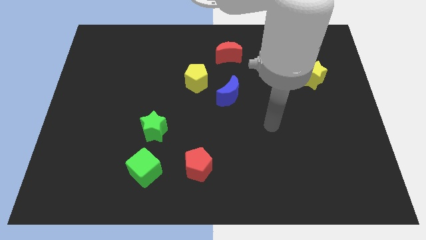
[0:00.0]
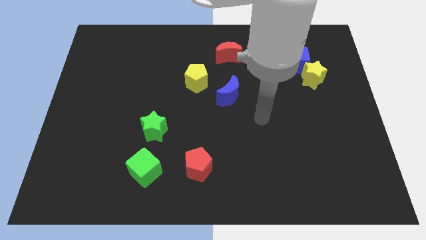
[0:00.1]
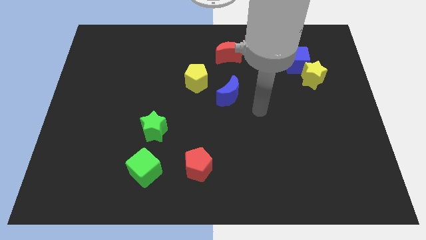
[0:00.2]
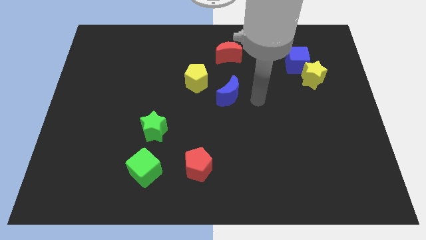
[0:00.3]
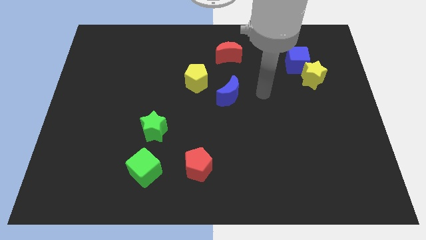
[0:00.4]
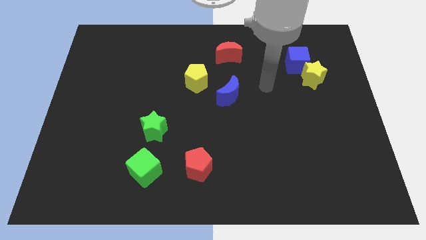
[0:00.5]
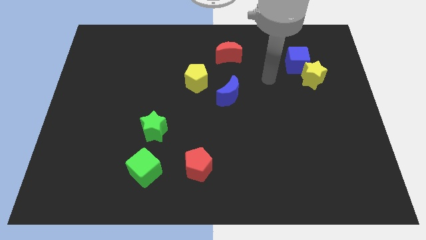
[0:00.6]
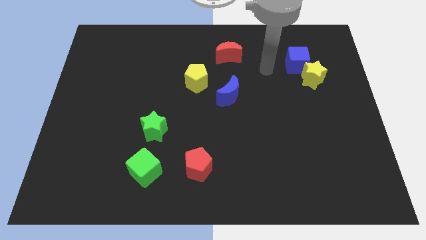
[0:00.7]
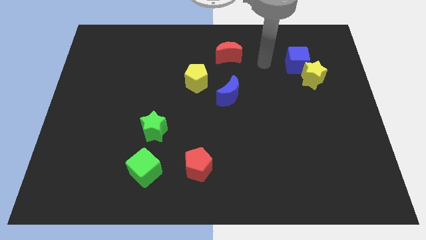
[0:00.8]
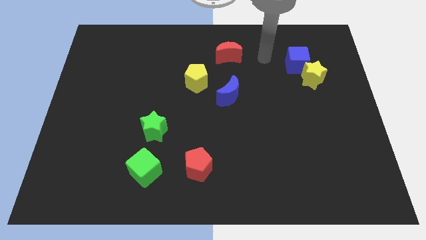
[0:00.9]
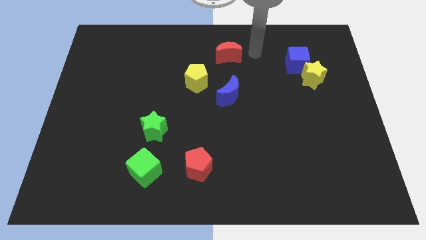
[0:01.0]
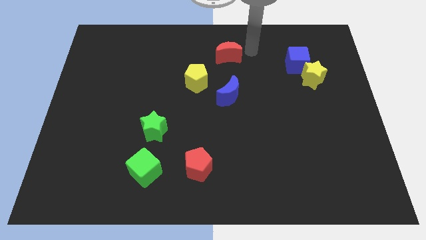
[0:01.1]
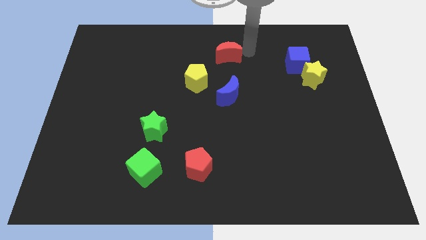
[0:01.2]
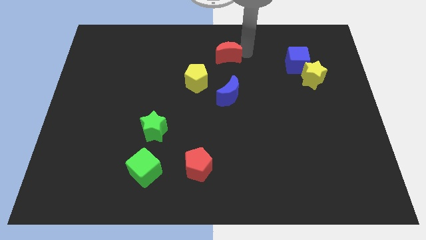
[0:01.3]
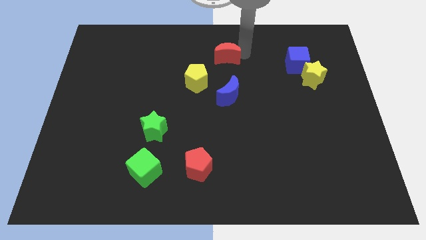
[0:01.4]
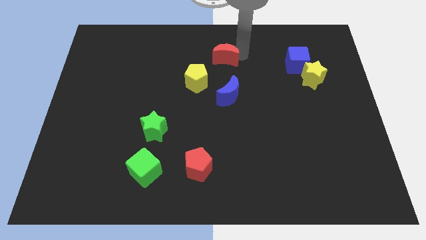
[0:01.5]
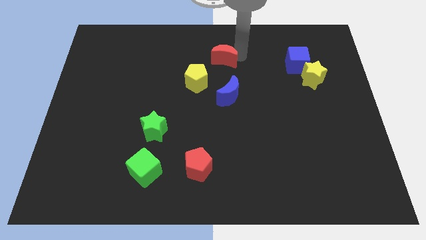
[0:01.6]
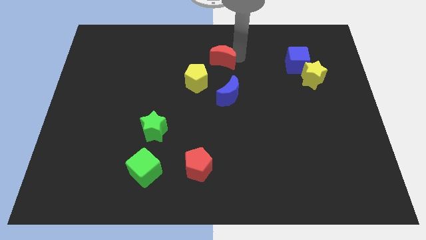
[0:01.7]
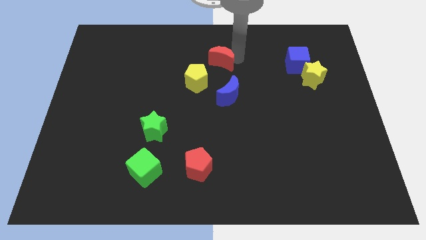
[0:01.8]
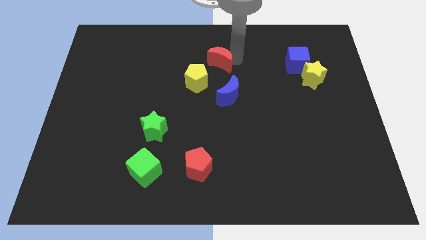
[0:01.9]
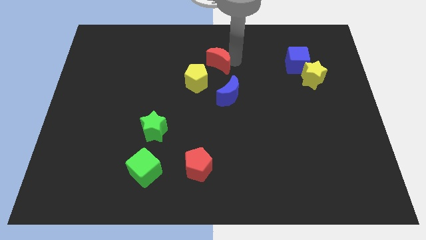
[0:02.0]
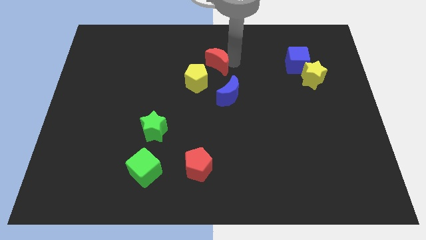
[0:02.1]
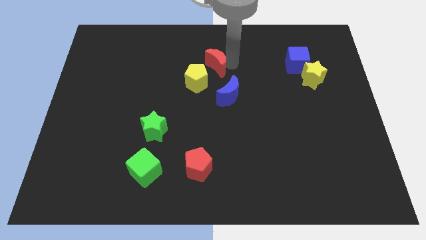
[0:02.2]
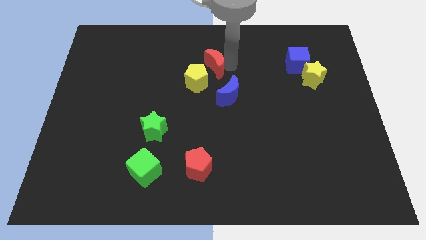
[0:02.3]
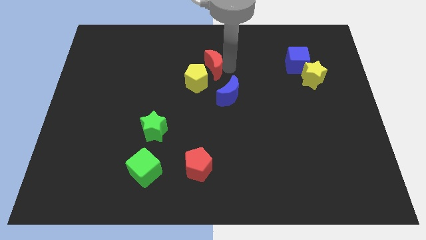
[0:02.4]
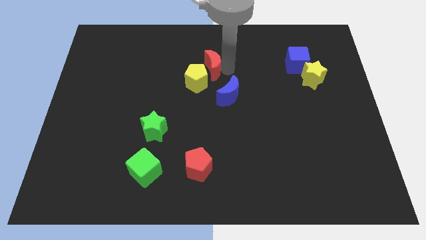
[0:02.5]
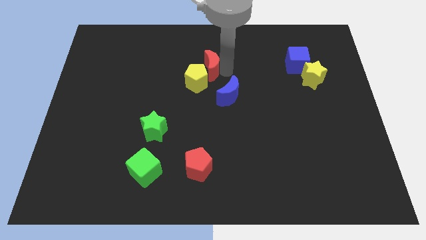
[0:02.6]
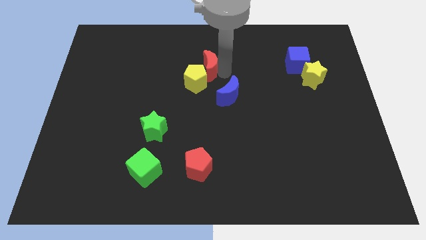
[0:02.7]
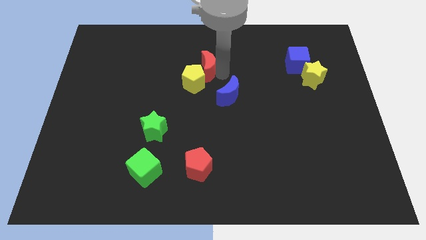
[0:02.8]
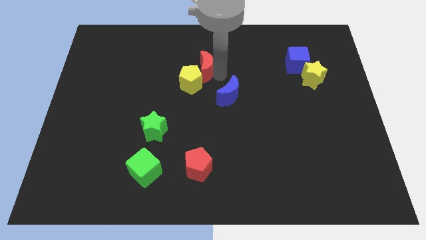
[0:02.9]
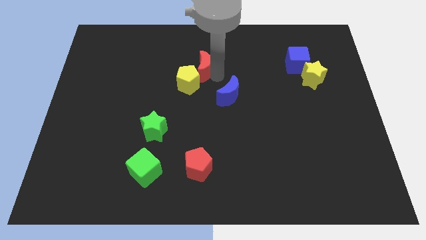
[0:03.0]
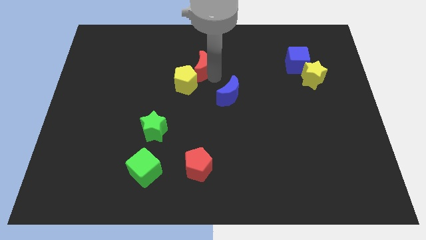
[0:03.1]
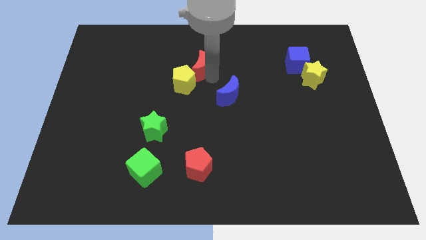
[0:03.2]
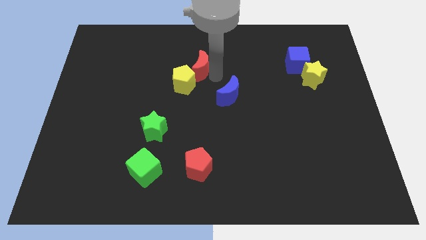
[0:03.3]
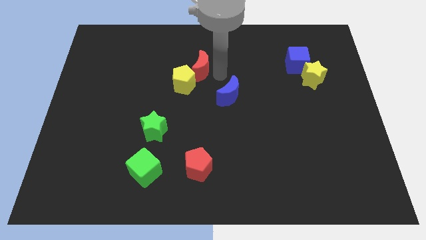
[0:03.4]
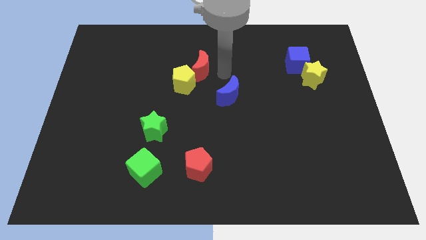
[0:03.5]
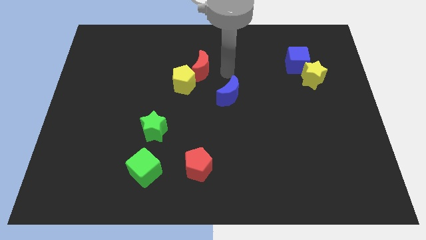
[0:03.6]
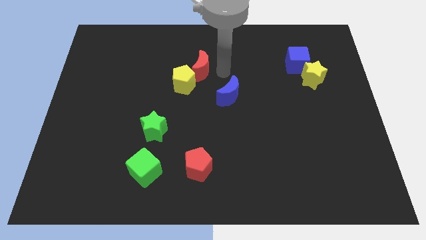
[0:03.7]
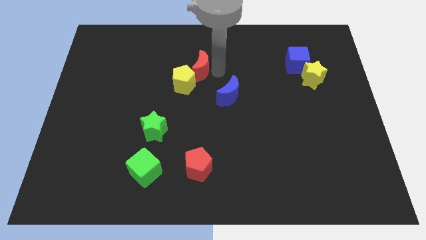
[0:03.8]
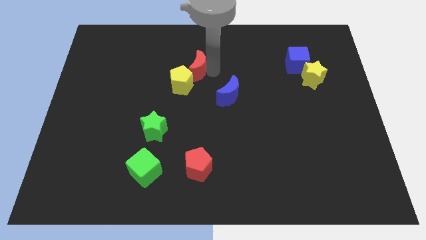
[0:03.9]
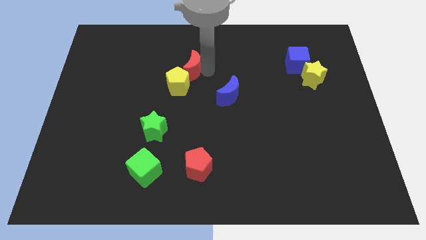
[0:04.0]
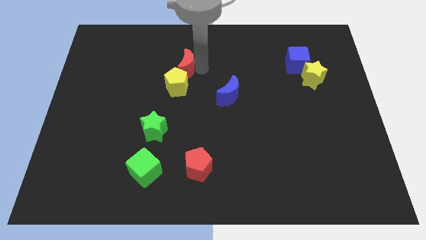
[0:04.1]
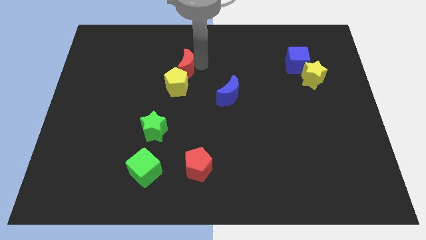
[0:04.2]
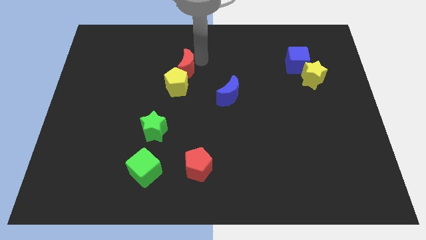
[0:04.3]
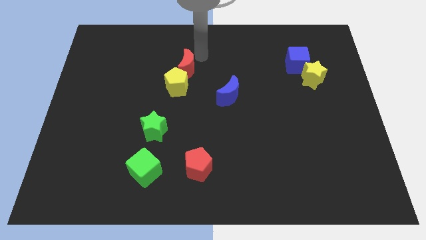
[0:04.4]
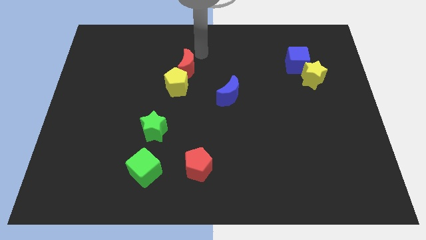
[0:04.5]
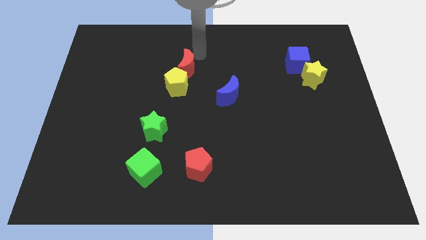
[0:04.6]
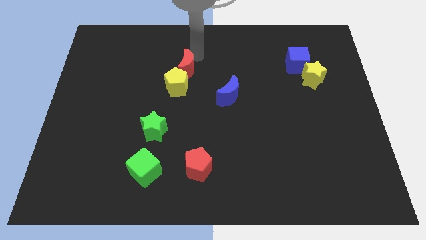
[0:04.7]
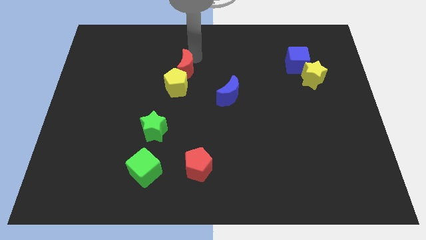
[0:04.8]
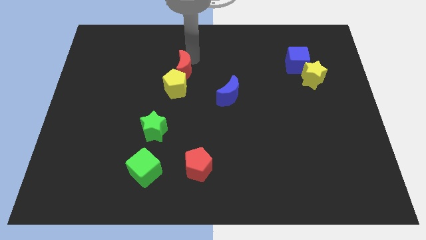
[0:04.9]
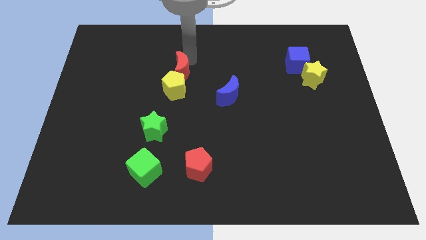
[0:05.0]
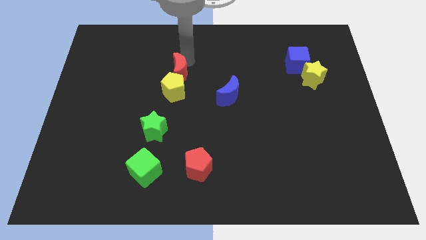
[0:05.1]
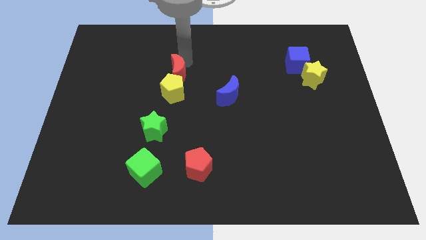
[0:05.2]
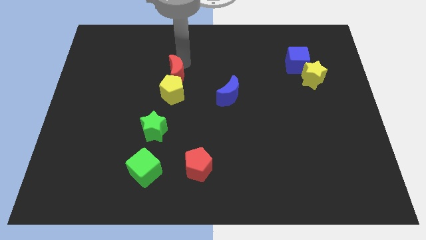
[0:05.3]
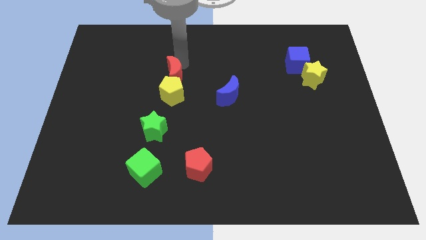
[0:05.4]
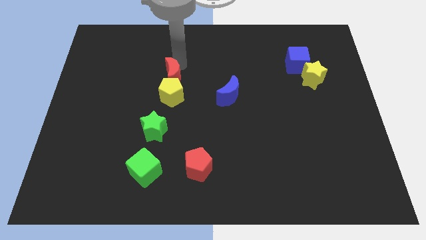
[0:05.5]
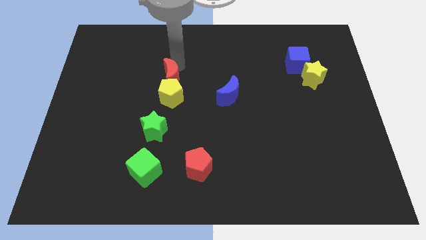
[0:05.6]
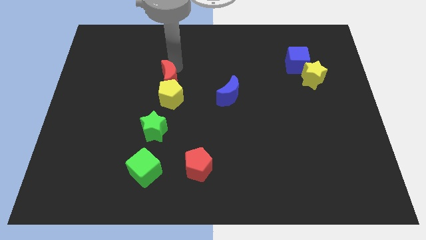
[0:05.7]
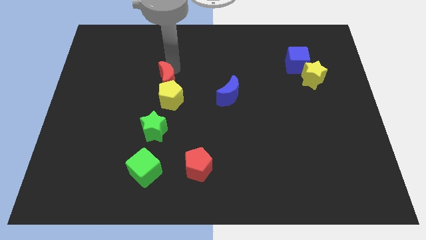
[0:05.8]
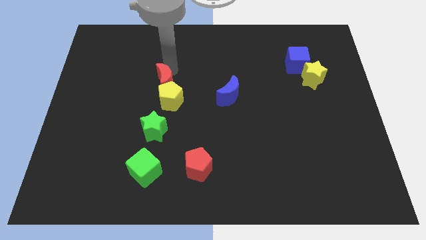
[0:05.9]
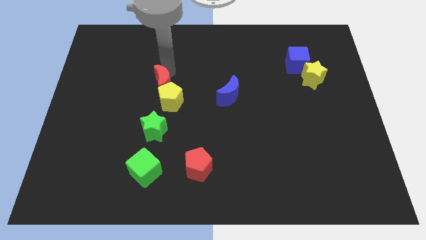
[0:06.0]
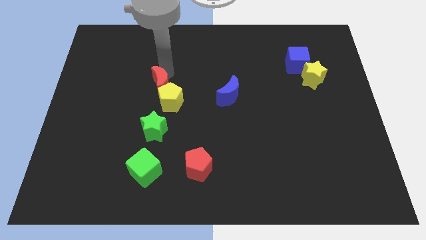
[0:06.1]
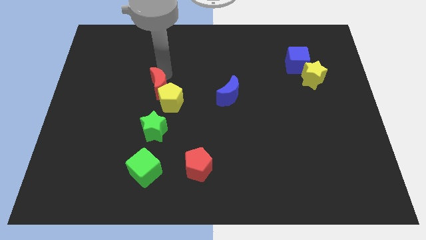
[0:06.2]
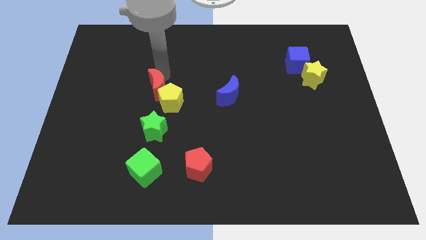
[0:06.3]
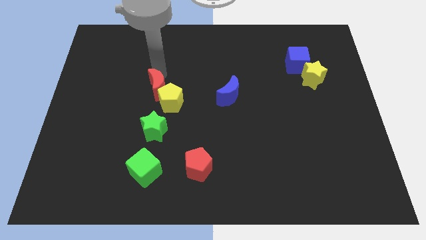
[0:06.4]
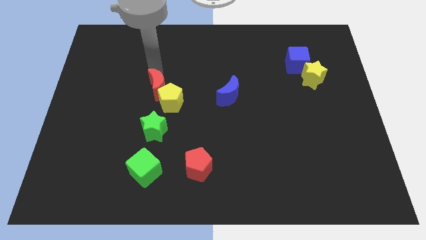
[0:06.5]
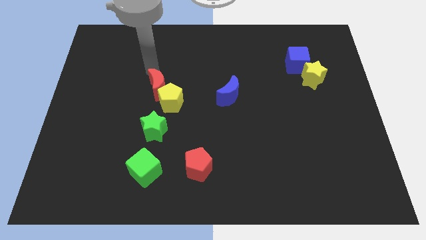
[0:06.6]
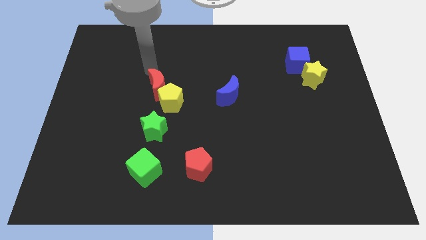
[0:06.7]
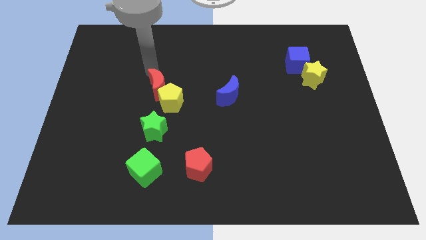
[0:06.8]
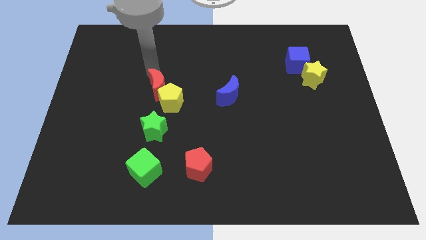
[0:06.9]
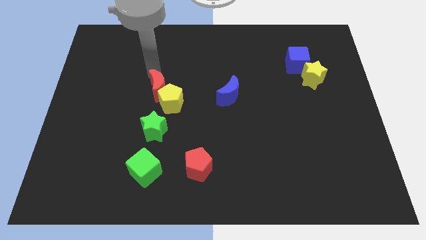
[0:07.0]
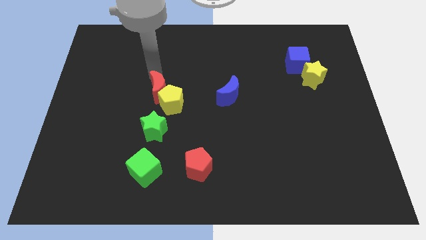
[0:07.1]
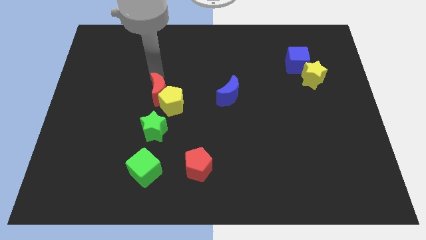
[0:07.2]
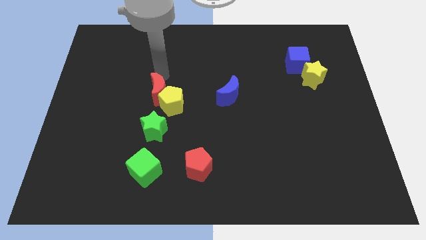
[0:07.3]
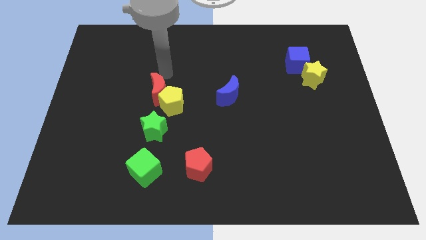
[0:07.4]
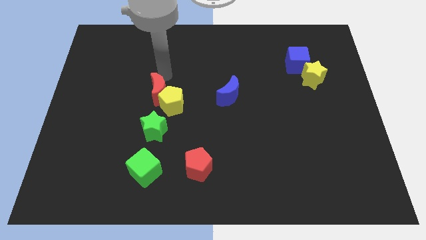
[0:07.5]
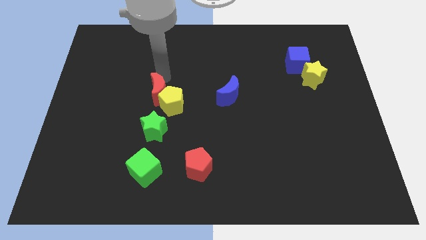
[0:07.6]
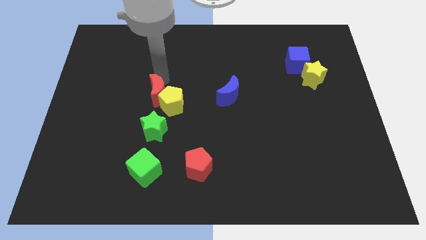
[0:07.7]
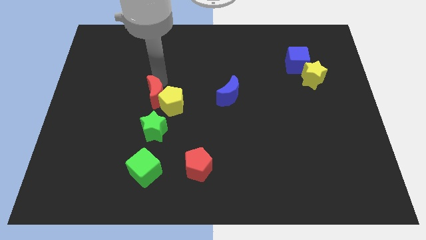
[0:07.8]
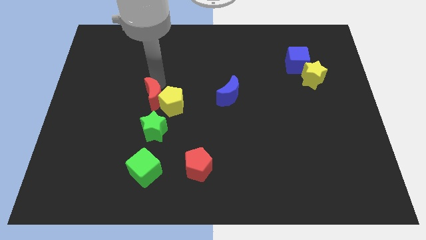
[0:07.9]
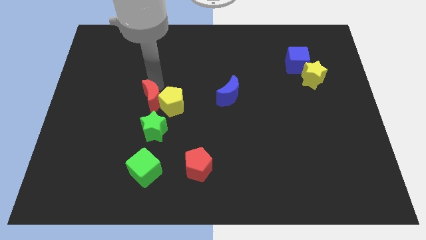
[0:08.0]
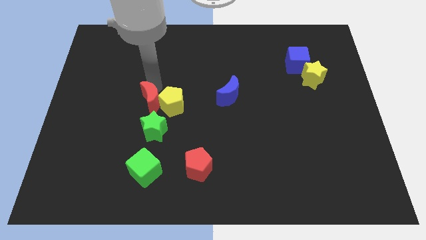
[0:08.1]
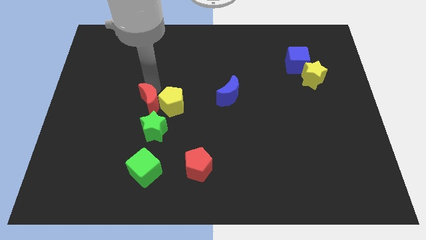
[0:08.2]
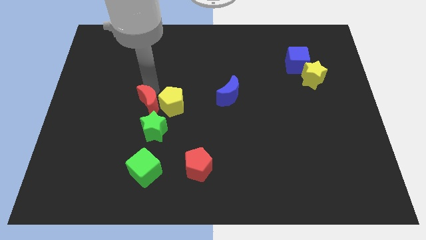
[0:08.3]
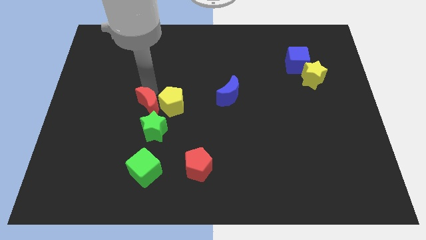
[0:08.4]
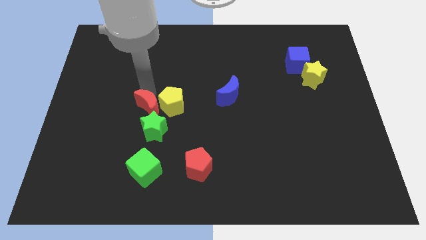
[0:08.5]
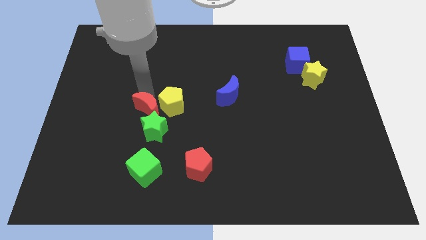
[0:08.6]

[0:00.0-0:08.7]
put the red moon to the top side of the green cube
